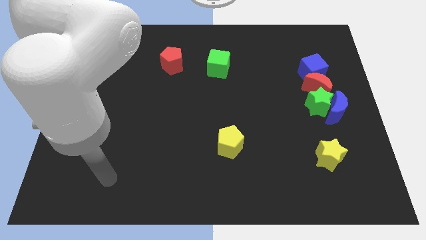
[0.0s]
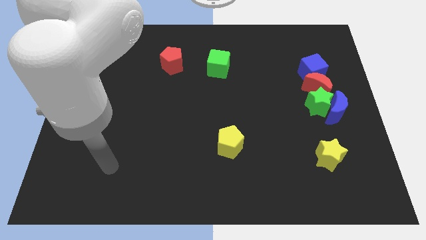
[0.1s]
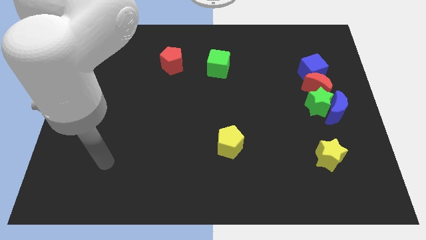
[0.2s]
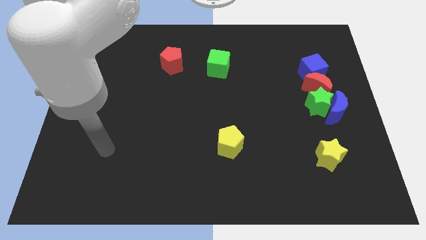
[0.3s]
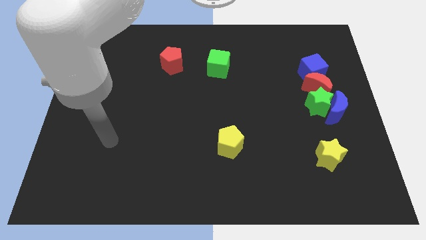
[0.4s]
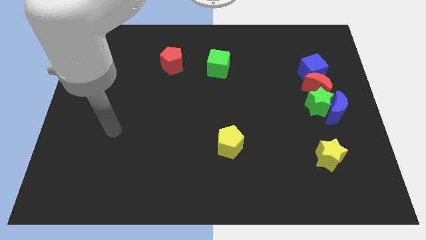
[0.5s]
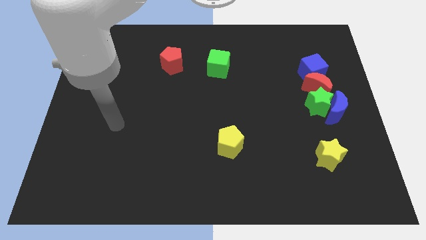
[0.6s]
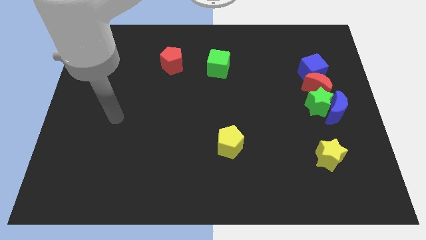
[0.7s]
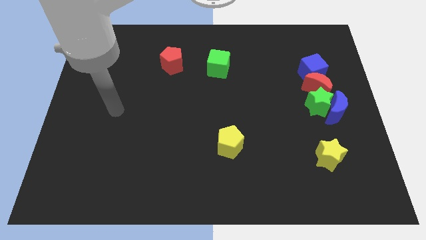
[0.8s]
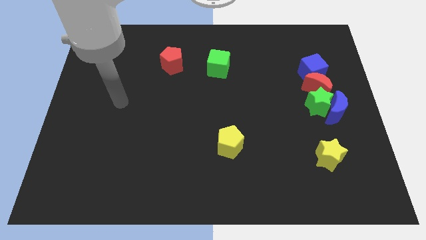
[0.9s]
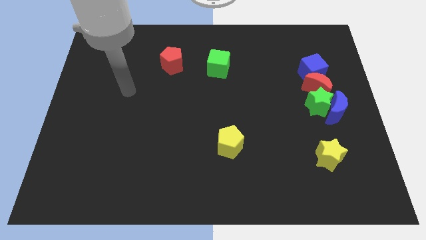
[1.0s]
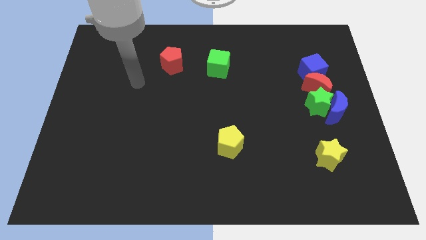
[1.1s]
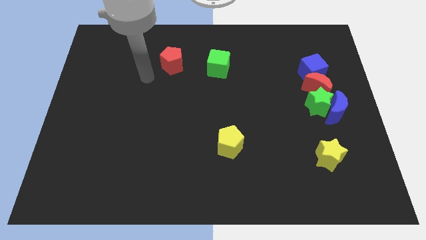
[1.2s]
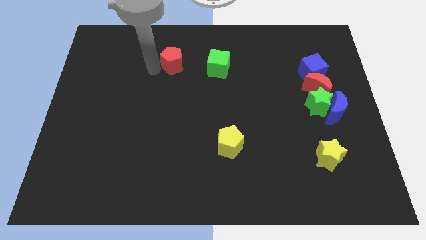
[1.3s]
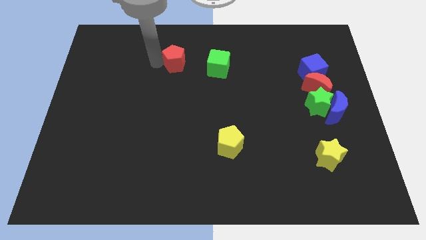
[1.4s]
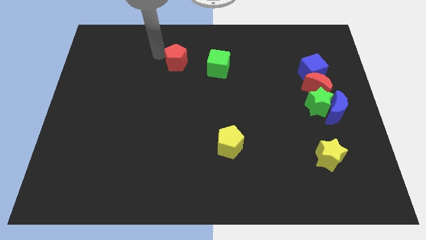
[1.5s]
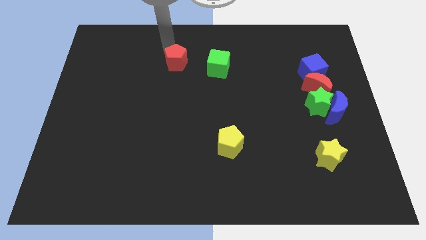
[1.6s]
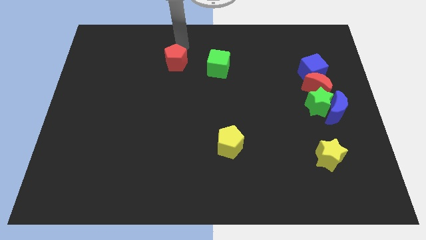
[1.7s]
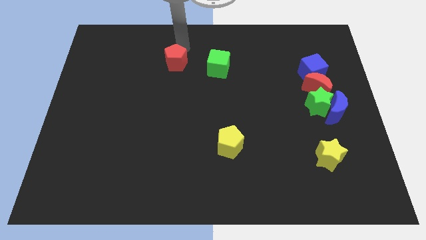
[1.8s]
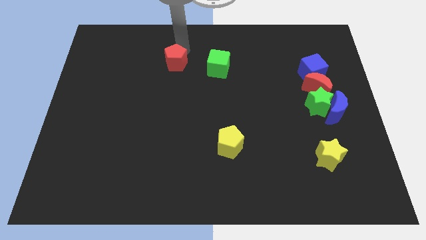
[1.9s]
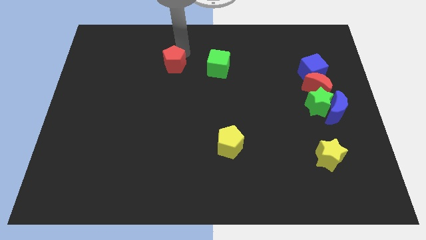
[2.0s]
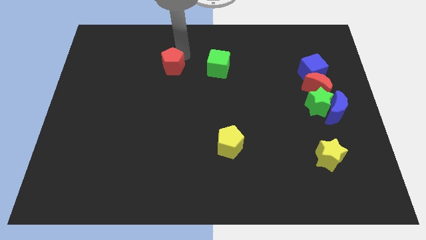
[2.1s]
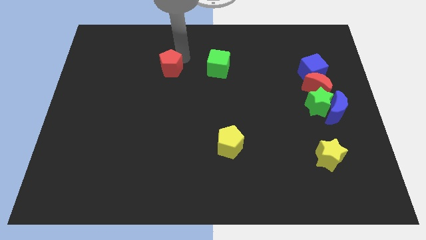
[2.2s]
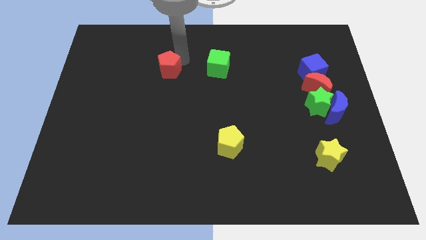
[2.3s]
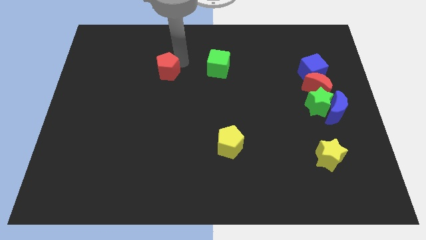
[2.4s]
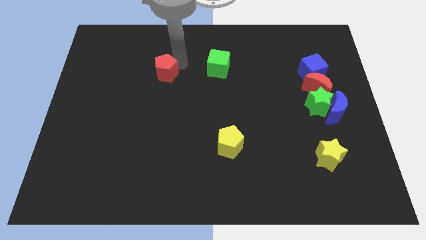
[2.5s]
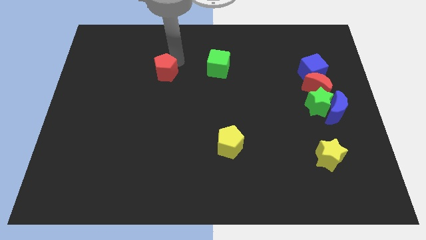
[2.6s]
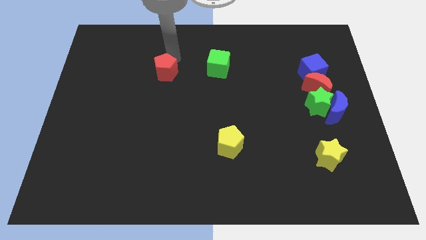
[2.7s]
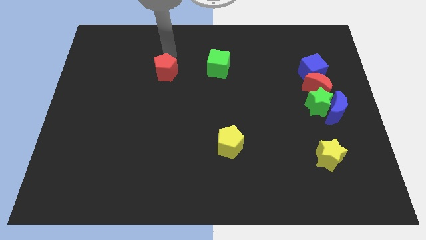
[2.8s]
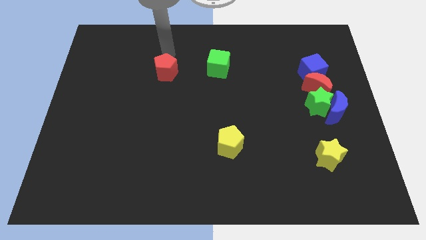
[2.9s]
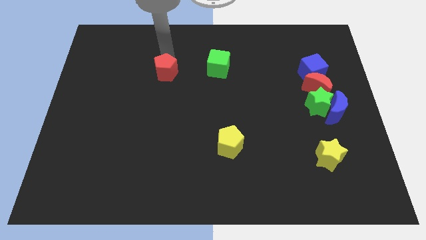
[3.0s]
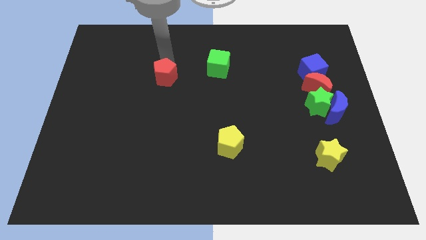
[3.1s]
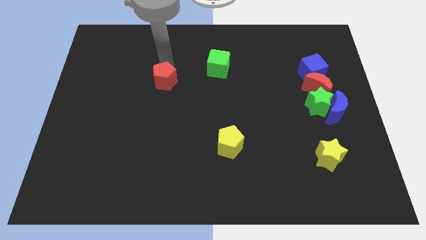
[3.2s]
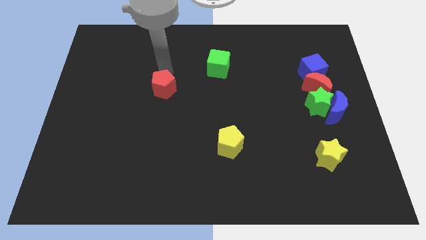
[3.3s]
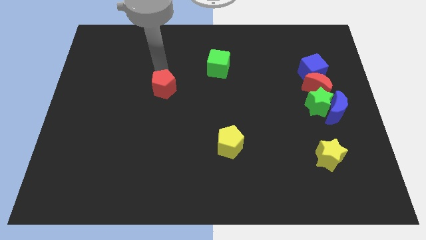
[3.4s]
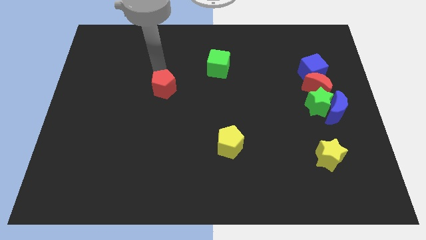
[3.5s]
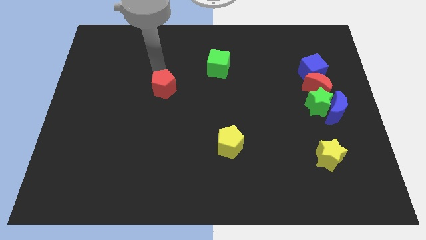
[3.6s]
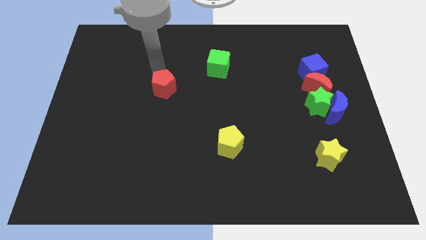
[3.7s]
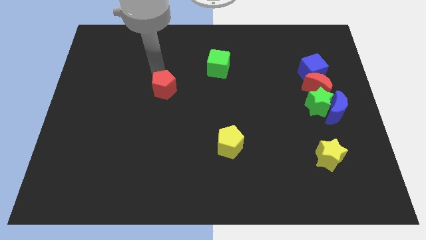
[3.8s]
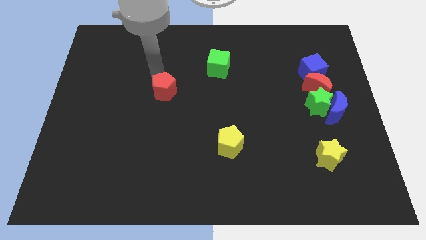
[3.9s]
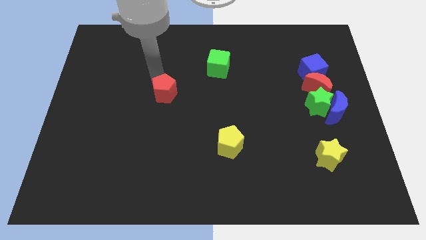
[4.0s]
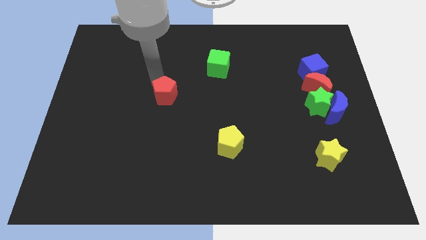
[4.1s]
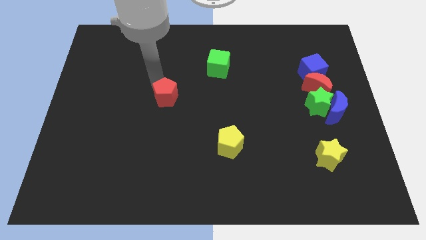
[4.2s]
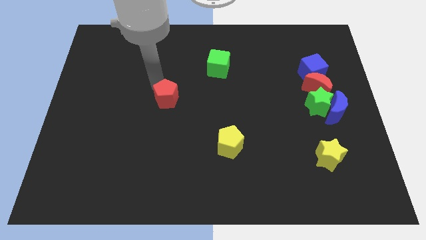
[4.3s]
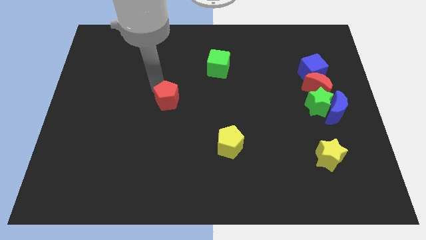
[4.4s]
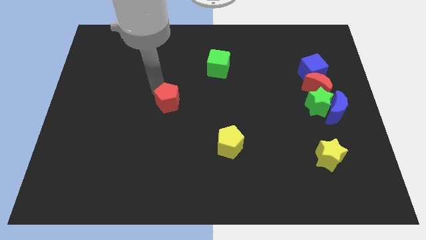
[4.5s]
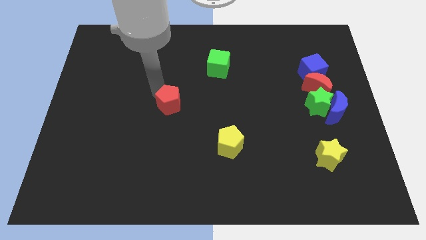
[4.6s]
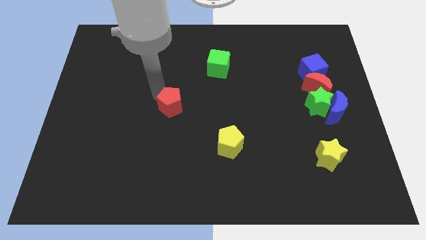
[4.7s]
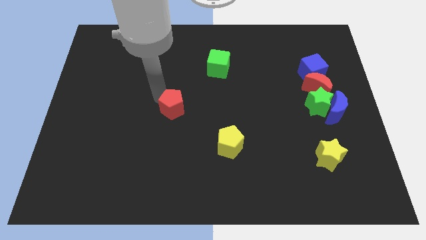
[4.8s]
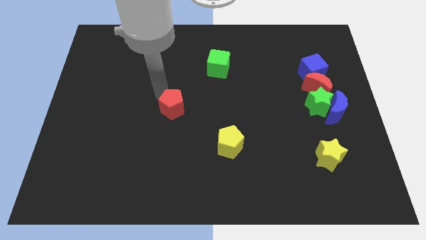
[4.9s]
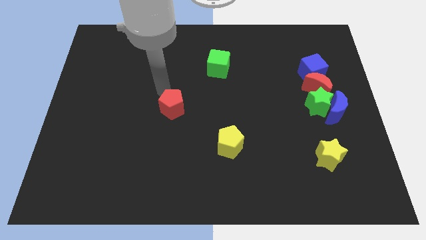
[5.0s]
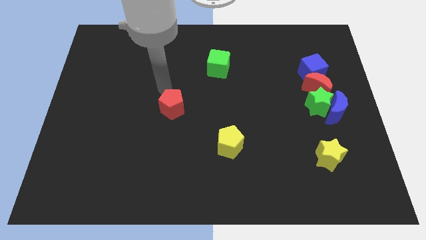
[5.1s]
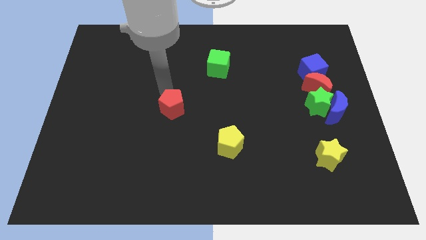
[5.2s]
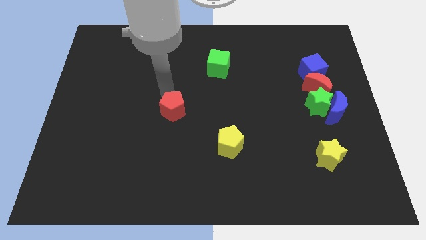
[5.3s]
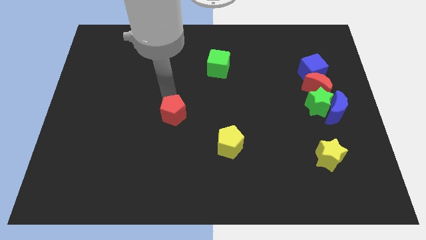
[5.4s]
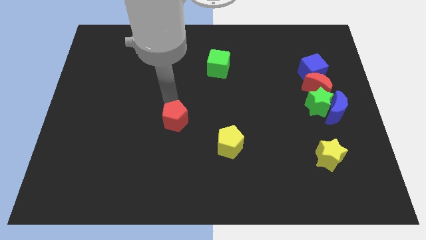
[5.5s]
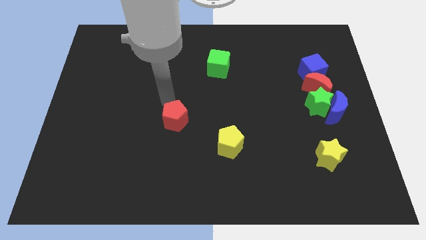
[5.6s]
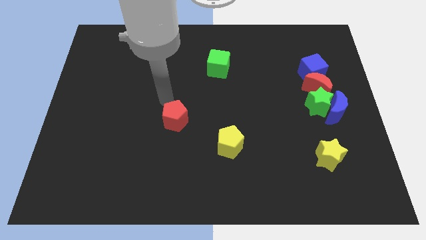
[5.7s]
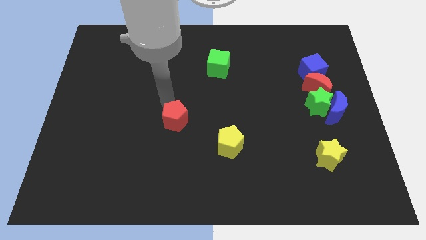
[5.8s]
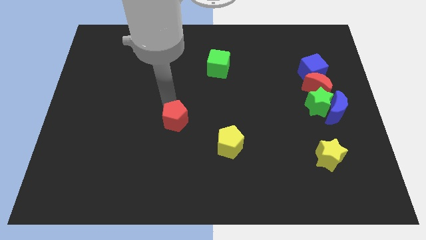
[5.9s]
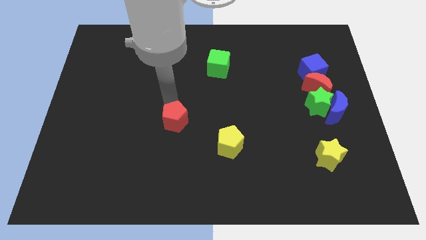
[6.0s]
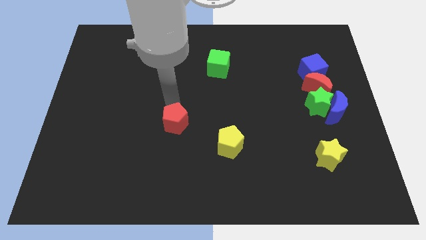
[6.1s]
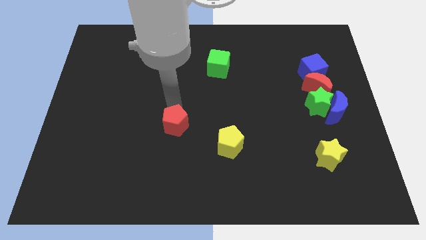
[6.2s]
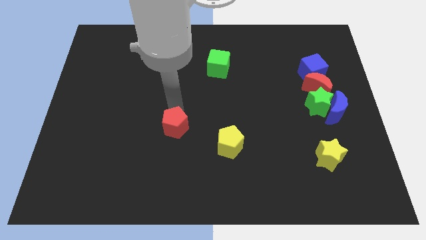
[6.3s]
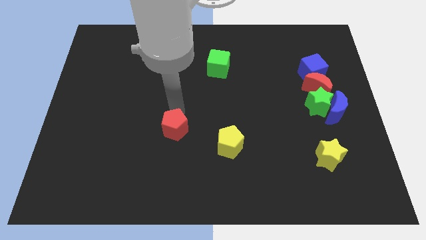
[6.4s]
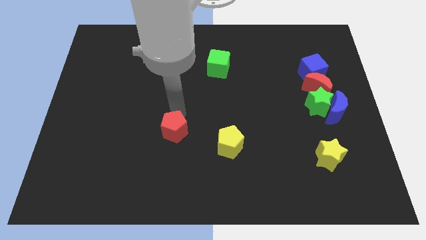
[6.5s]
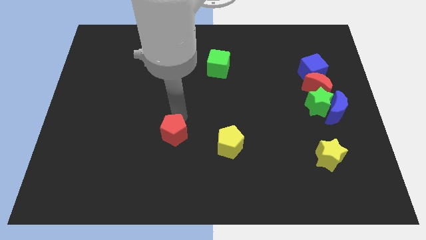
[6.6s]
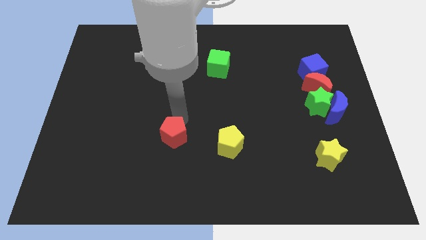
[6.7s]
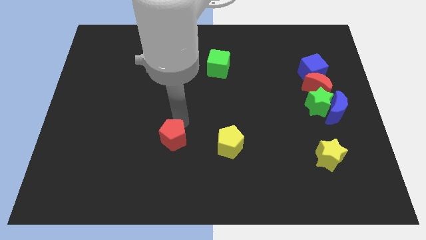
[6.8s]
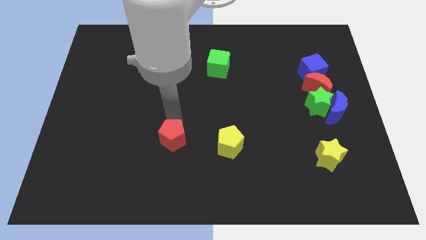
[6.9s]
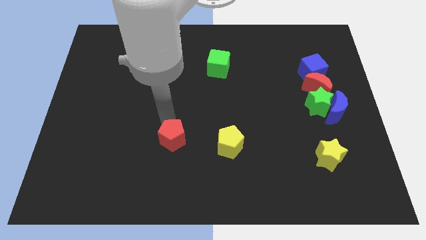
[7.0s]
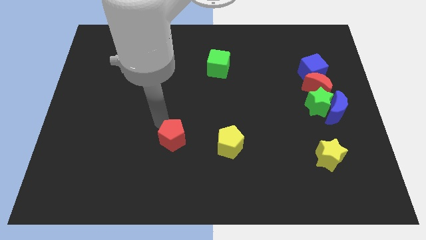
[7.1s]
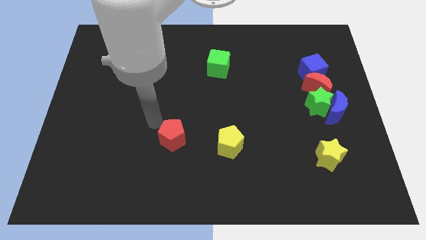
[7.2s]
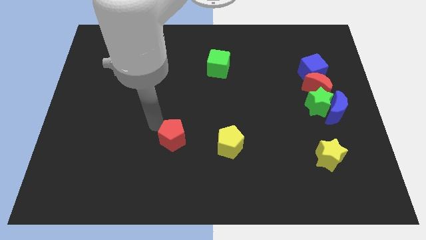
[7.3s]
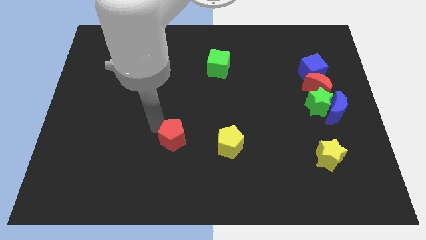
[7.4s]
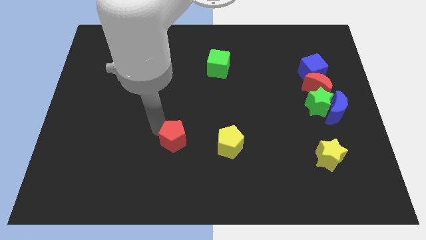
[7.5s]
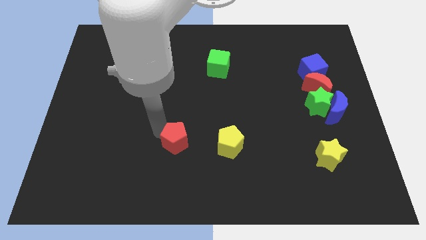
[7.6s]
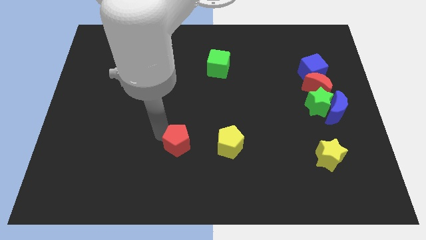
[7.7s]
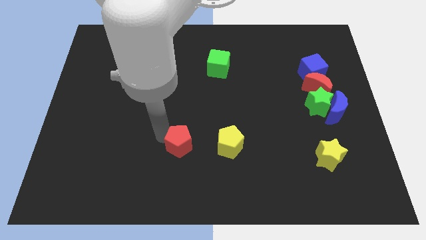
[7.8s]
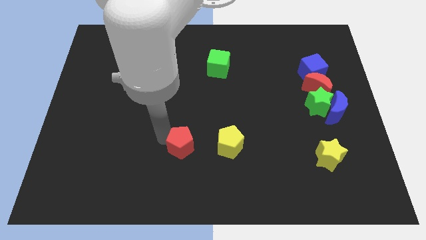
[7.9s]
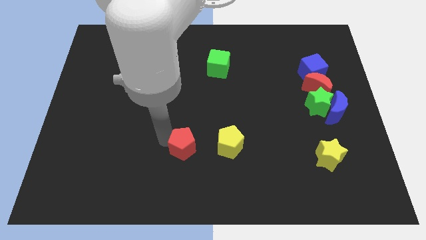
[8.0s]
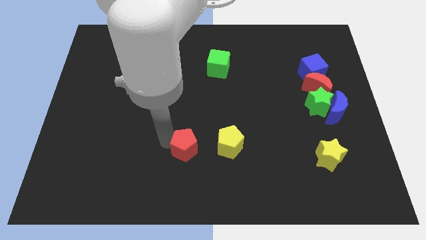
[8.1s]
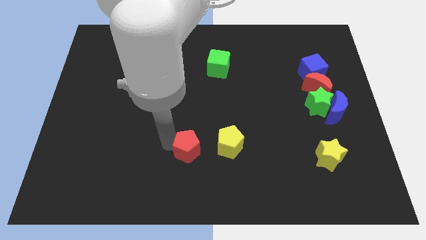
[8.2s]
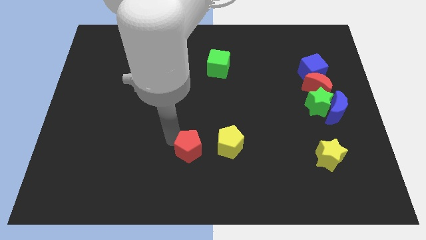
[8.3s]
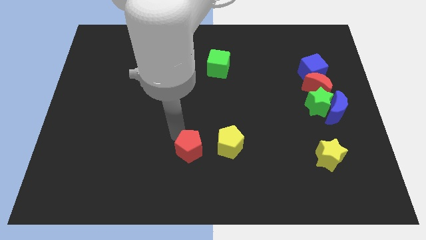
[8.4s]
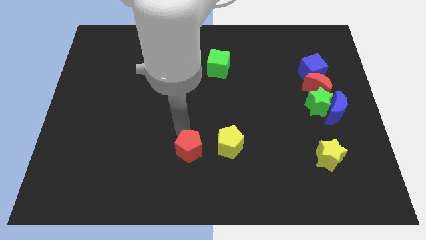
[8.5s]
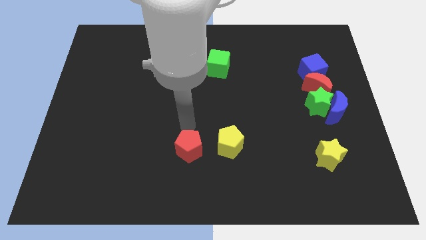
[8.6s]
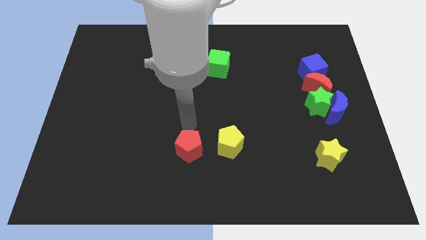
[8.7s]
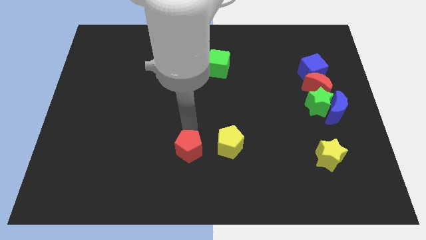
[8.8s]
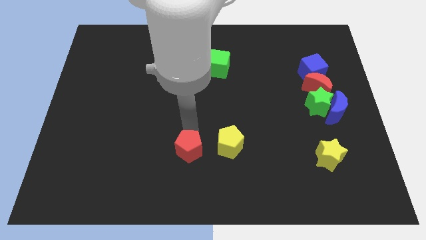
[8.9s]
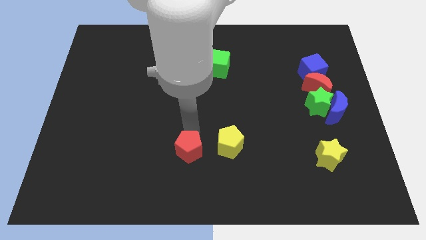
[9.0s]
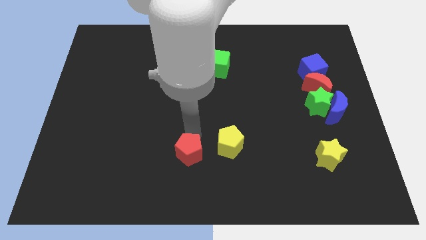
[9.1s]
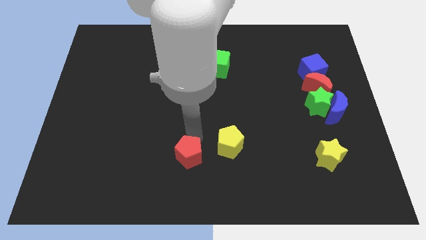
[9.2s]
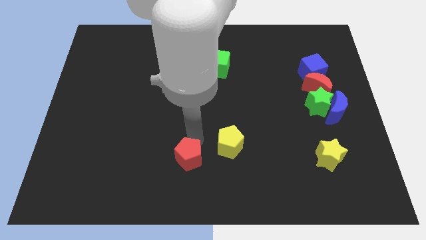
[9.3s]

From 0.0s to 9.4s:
put the red pentagon to the bottom
